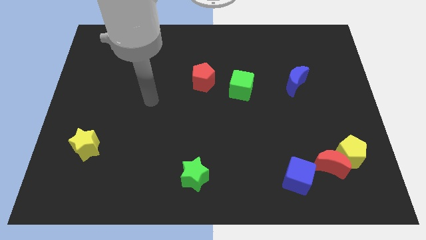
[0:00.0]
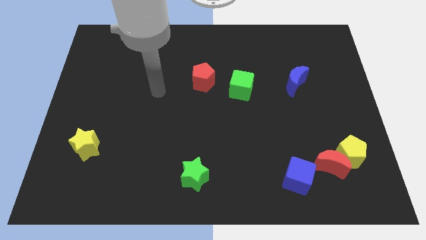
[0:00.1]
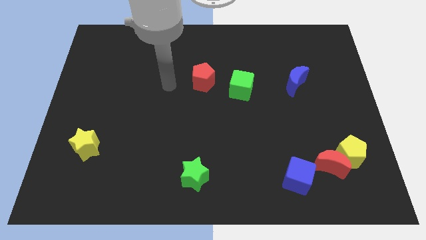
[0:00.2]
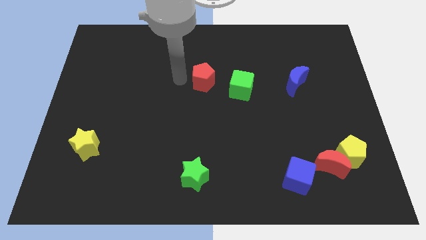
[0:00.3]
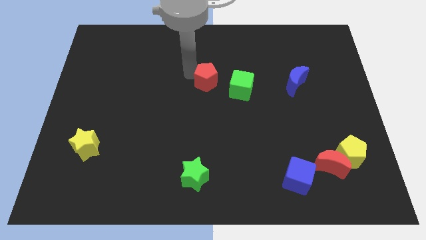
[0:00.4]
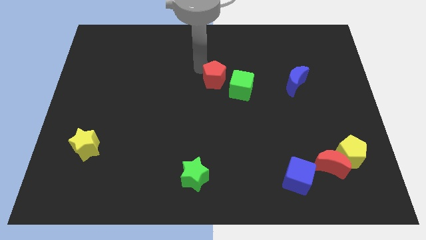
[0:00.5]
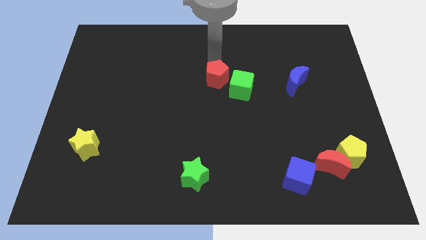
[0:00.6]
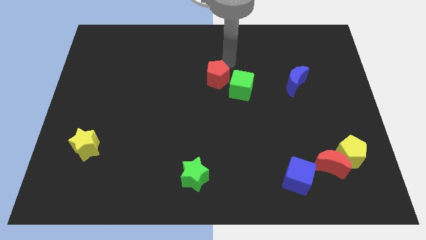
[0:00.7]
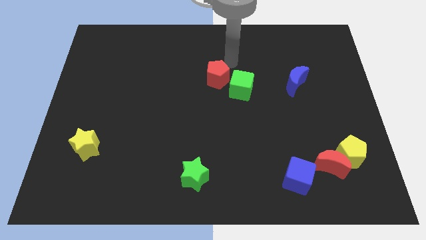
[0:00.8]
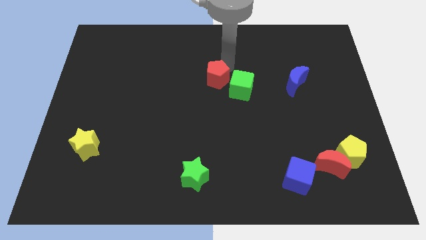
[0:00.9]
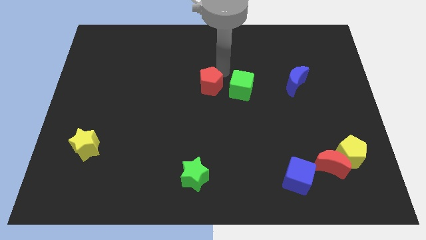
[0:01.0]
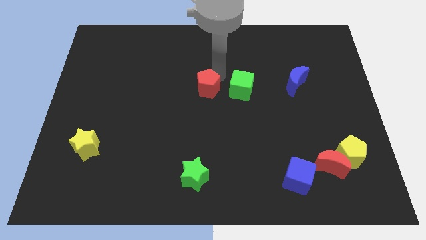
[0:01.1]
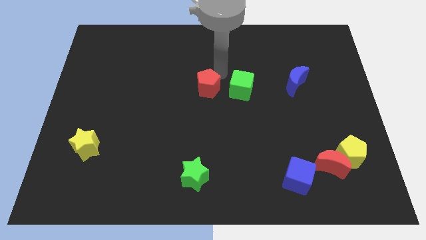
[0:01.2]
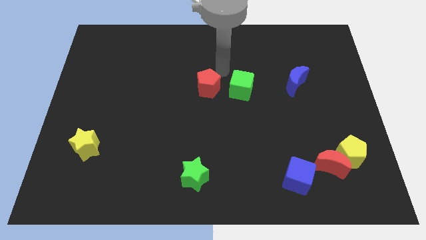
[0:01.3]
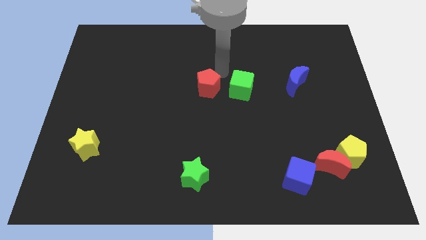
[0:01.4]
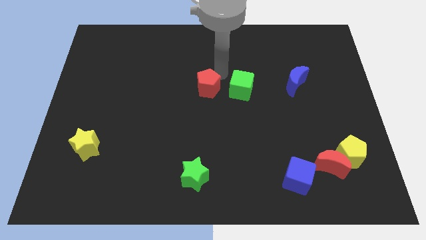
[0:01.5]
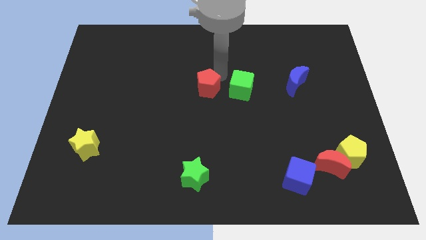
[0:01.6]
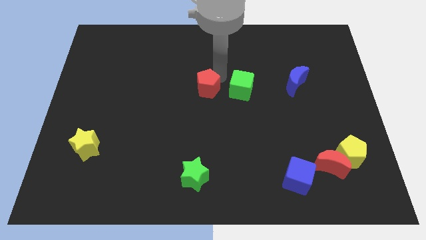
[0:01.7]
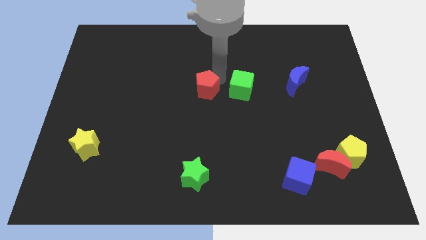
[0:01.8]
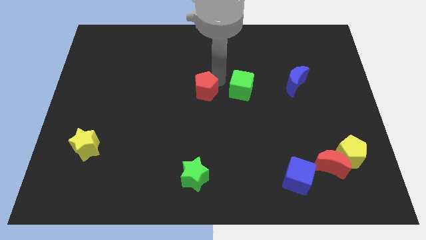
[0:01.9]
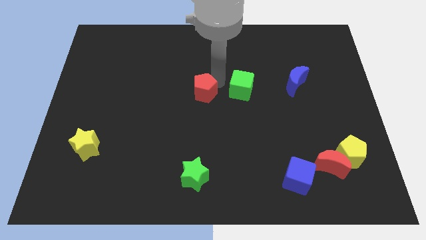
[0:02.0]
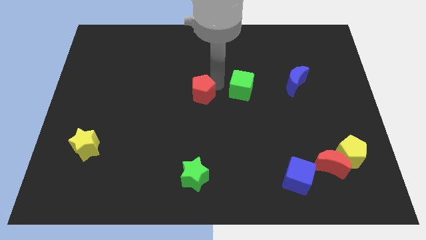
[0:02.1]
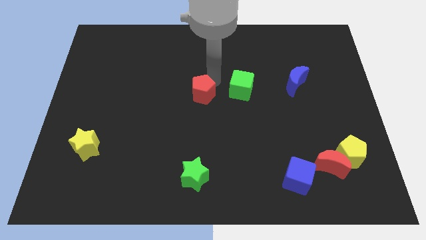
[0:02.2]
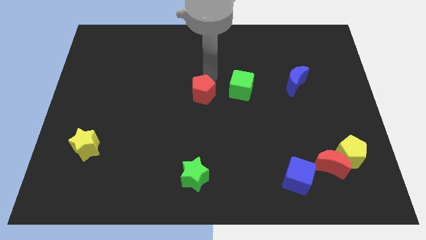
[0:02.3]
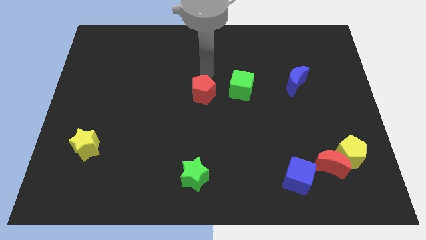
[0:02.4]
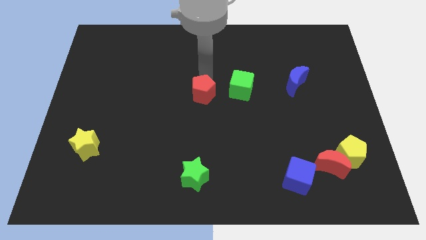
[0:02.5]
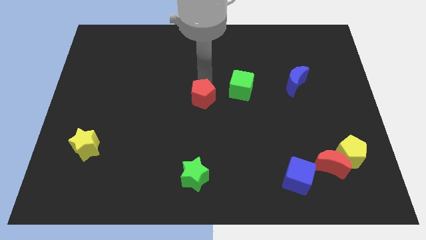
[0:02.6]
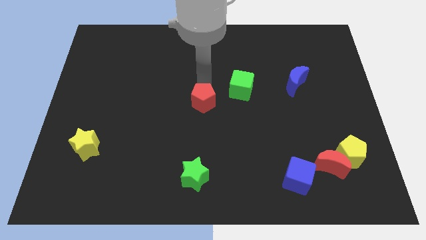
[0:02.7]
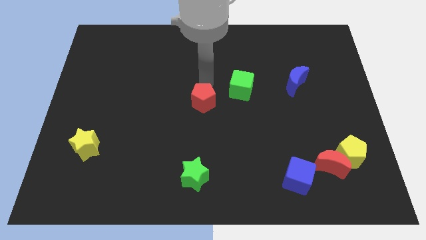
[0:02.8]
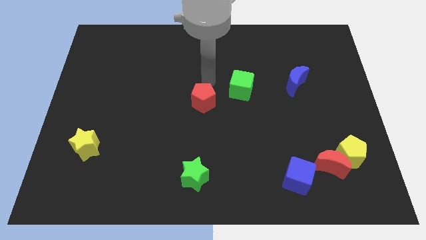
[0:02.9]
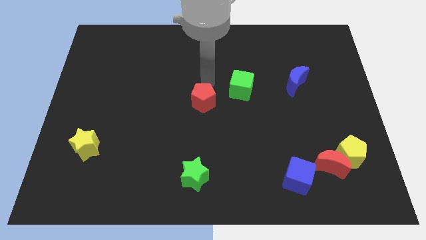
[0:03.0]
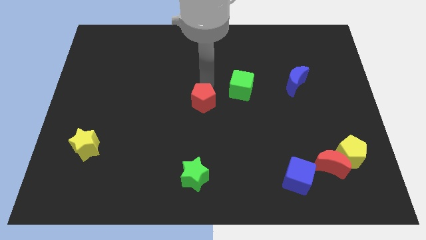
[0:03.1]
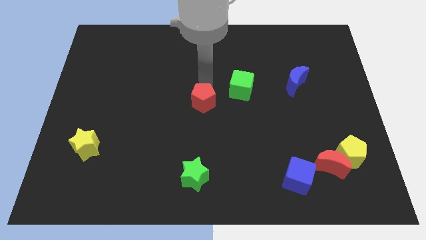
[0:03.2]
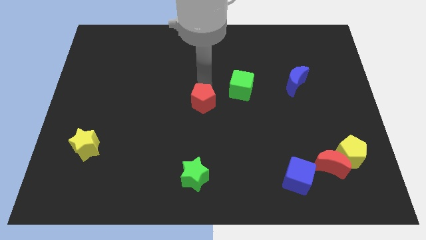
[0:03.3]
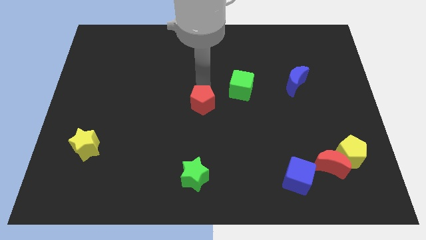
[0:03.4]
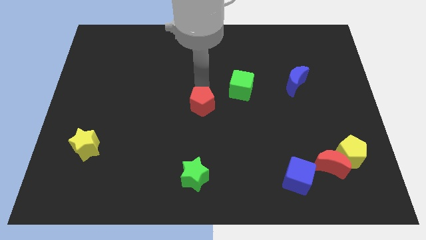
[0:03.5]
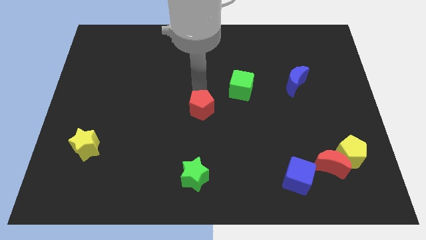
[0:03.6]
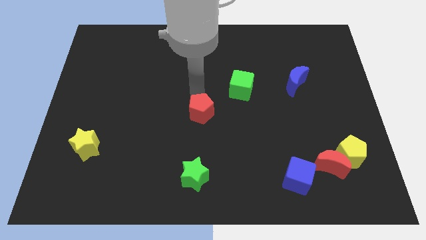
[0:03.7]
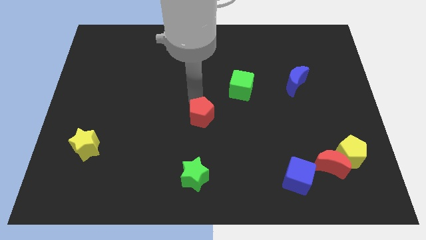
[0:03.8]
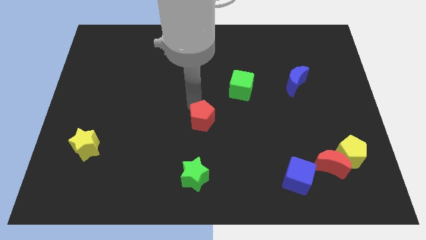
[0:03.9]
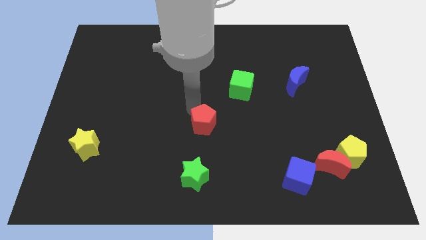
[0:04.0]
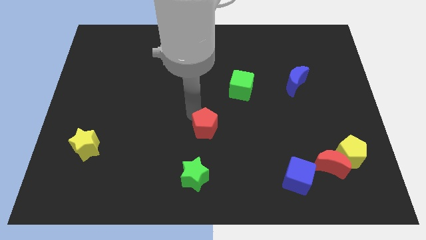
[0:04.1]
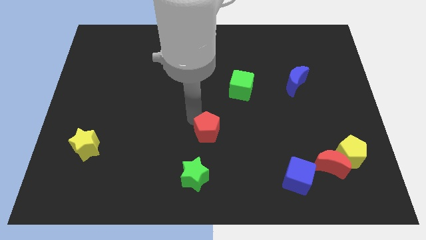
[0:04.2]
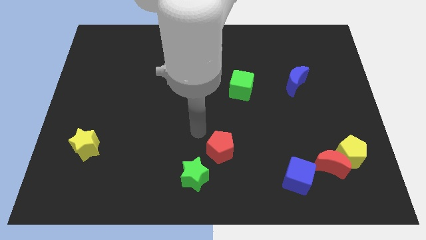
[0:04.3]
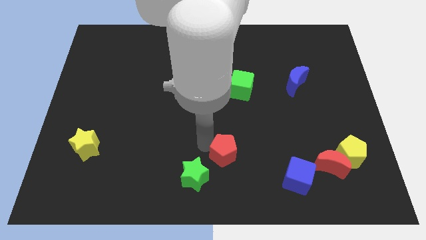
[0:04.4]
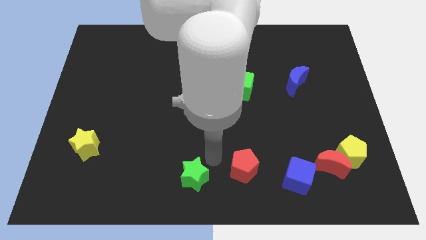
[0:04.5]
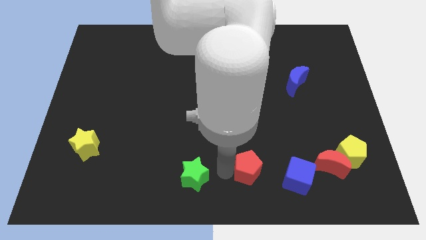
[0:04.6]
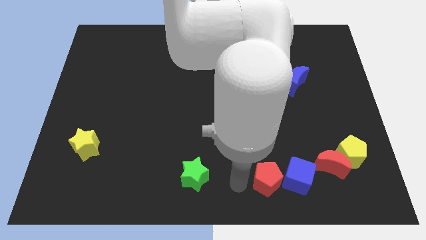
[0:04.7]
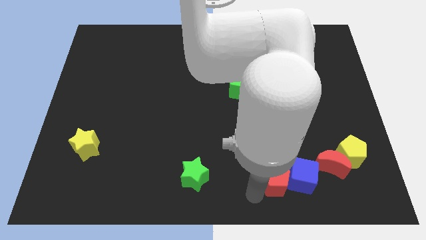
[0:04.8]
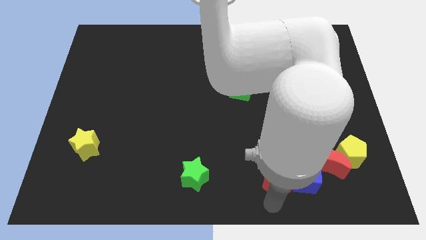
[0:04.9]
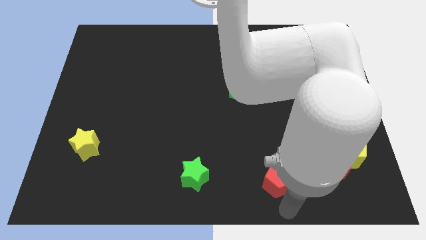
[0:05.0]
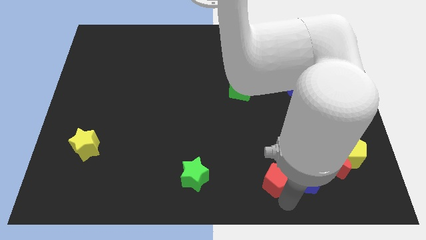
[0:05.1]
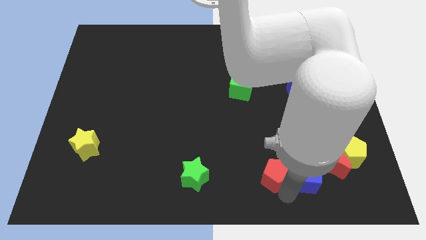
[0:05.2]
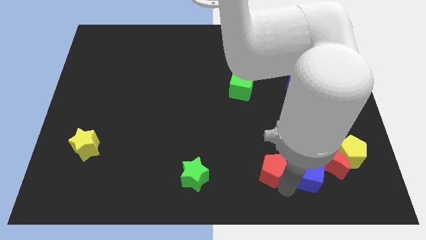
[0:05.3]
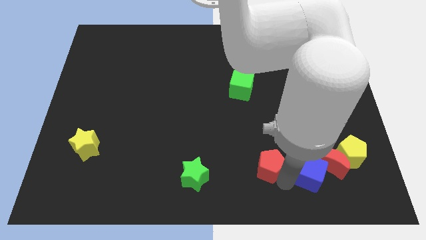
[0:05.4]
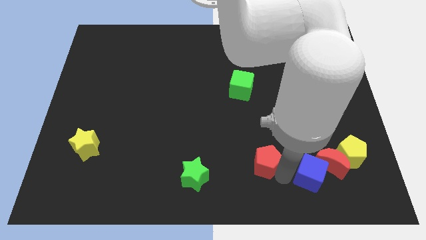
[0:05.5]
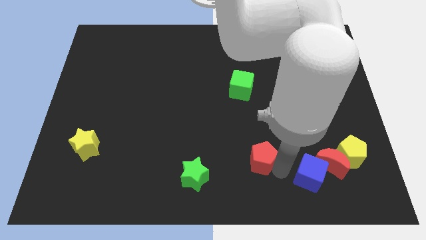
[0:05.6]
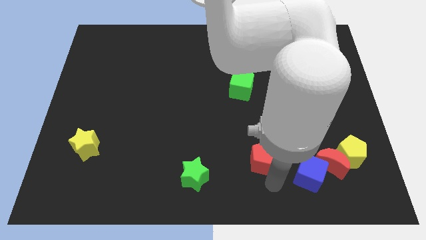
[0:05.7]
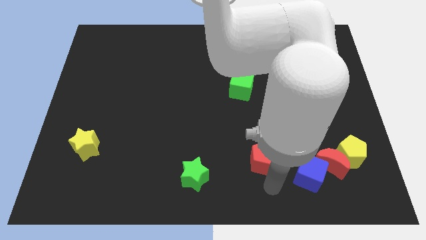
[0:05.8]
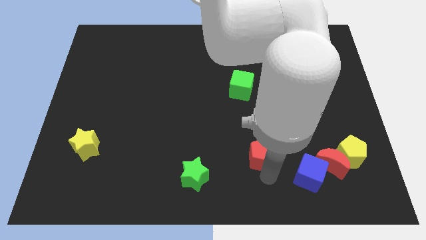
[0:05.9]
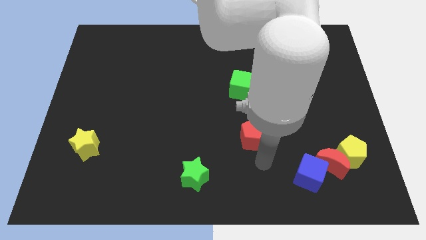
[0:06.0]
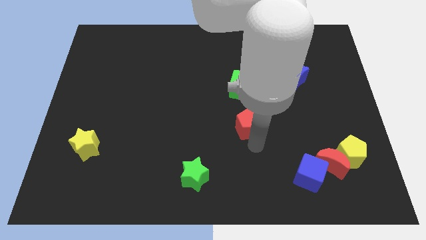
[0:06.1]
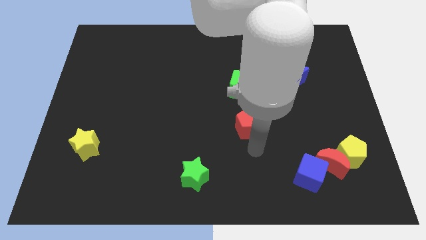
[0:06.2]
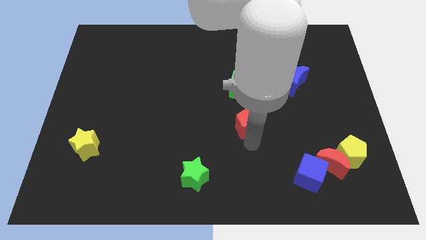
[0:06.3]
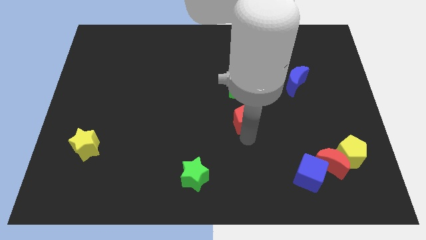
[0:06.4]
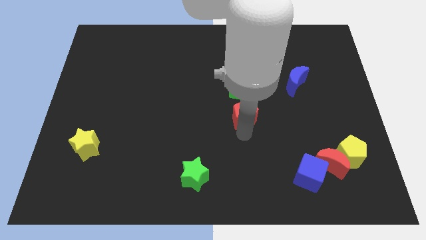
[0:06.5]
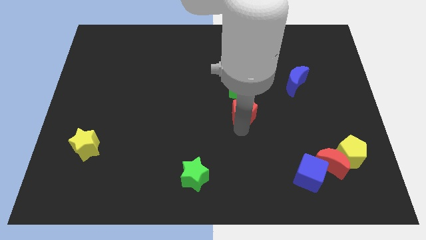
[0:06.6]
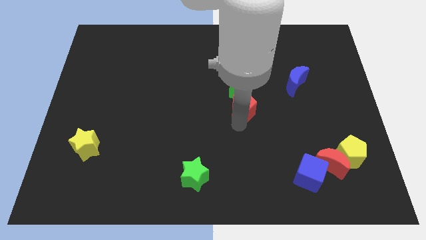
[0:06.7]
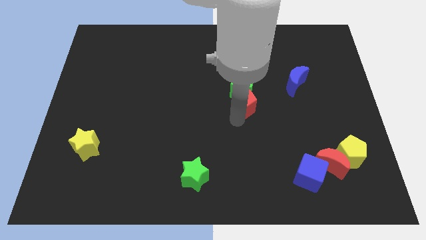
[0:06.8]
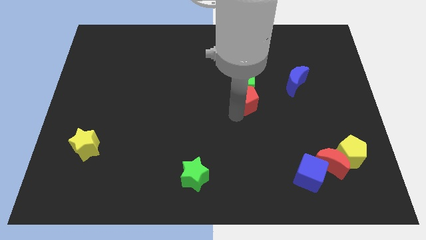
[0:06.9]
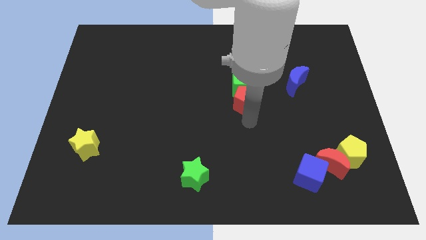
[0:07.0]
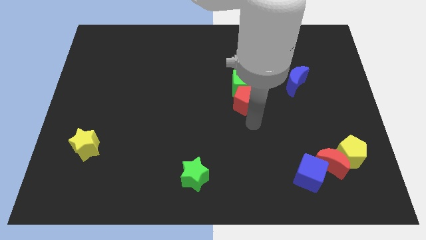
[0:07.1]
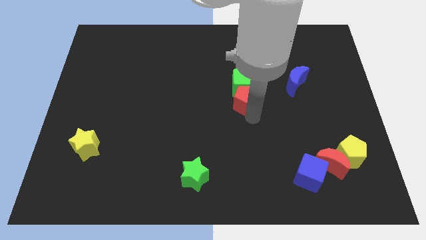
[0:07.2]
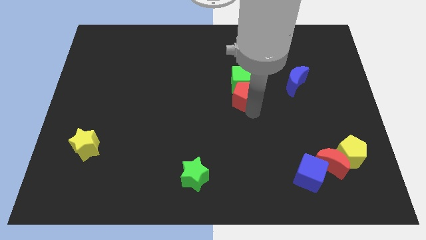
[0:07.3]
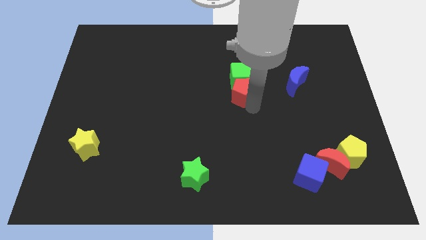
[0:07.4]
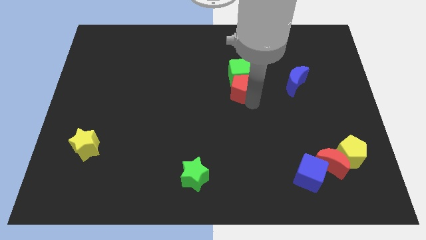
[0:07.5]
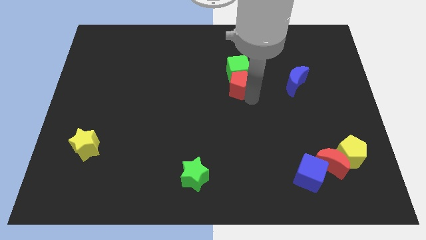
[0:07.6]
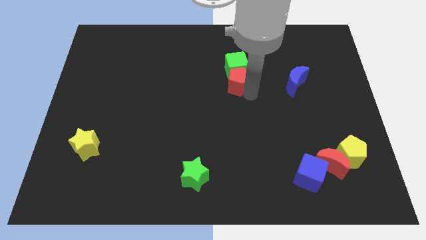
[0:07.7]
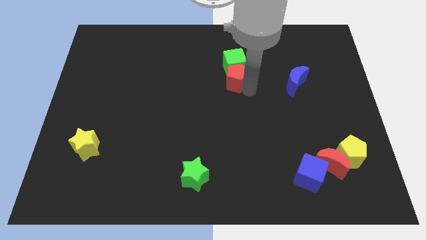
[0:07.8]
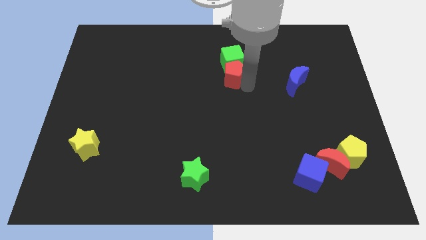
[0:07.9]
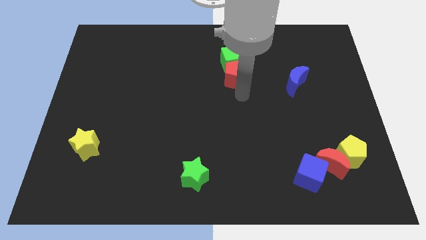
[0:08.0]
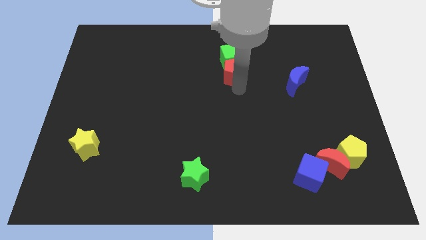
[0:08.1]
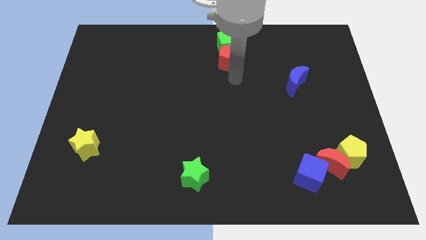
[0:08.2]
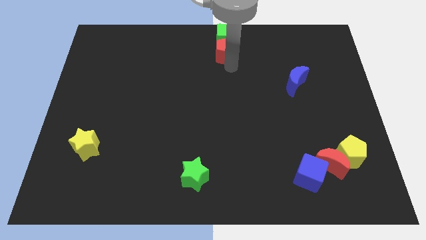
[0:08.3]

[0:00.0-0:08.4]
push the red pentagon to the top side
